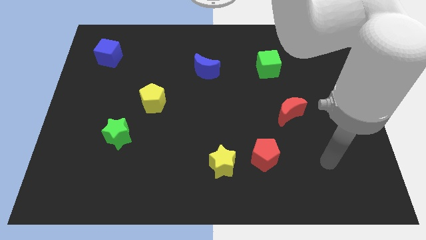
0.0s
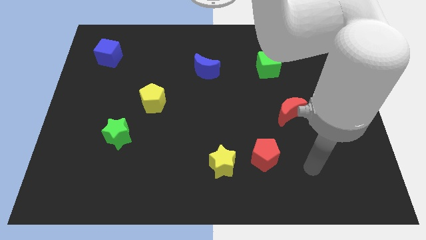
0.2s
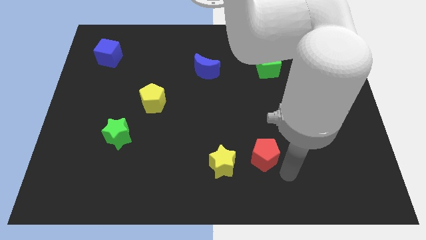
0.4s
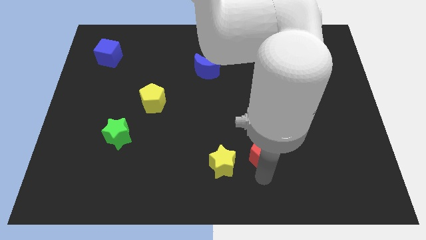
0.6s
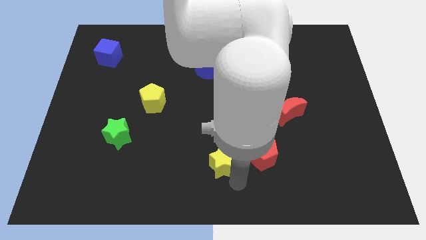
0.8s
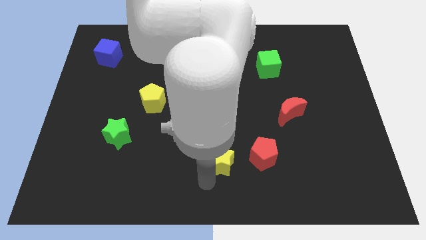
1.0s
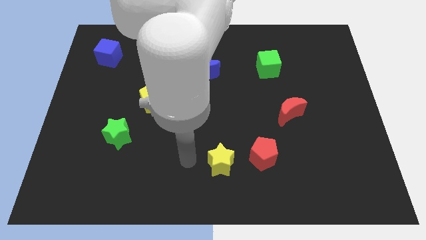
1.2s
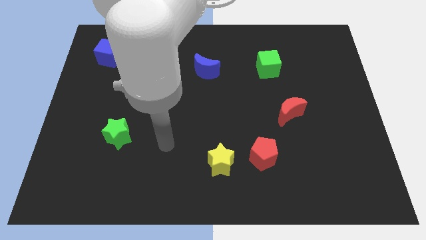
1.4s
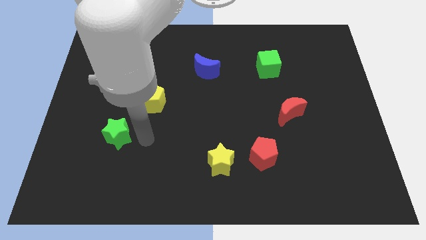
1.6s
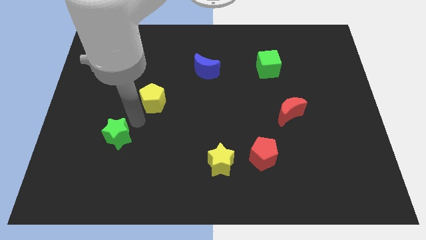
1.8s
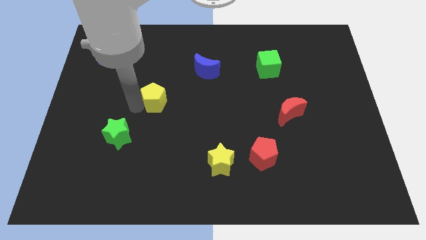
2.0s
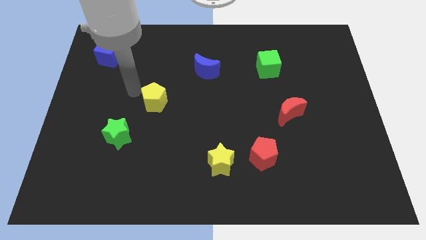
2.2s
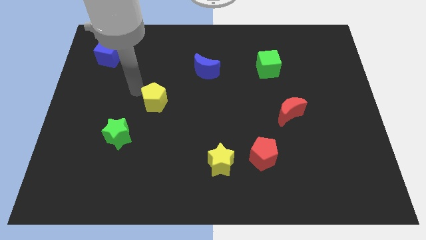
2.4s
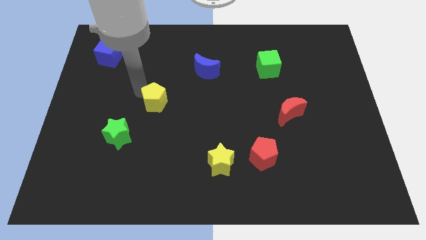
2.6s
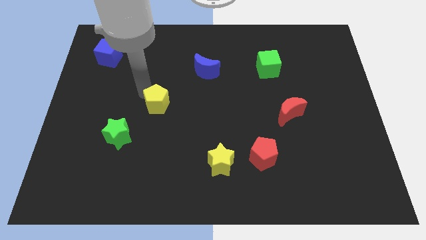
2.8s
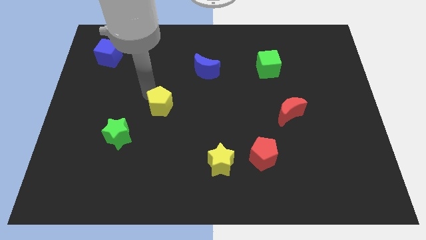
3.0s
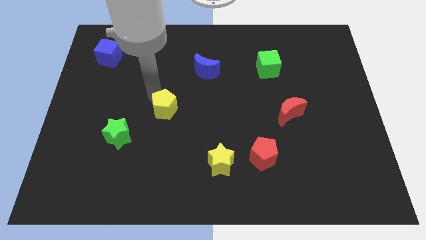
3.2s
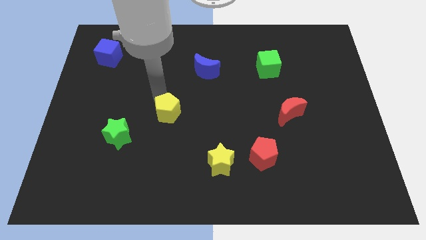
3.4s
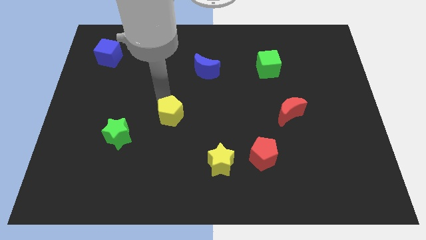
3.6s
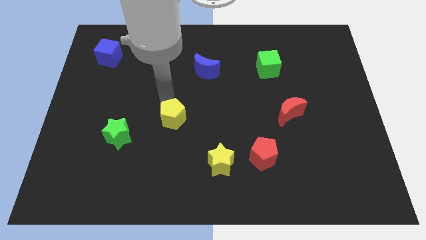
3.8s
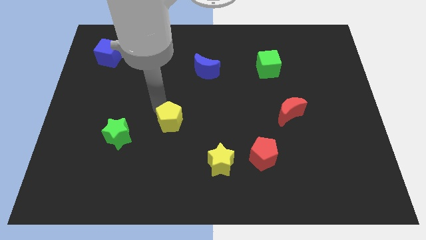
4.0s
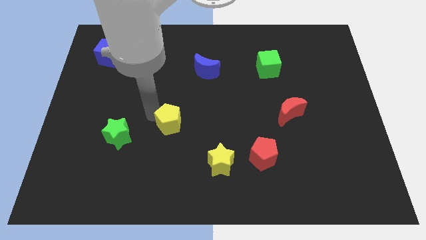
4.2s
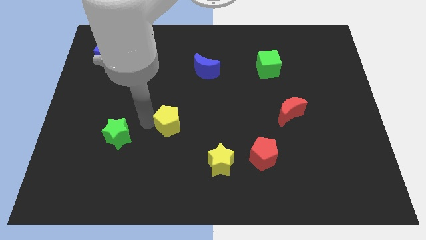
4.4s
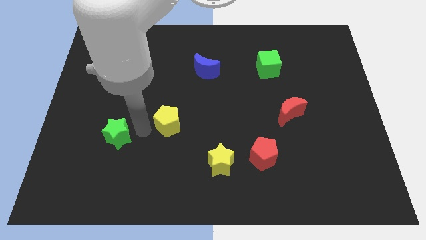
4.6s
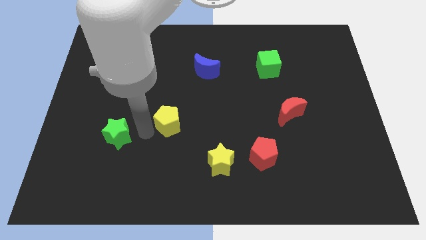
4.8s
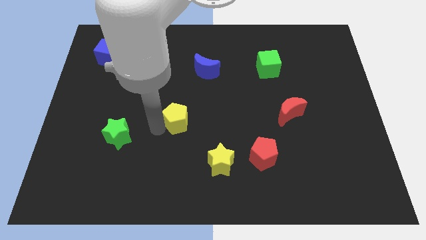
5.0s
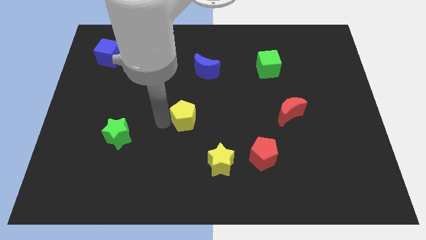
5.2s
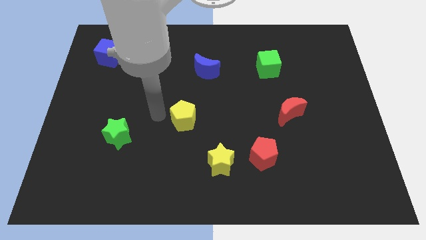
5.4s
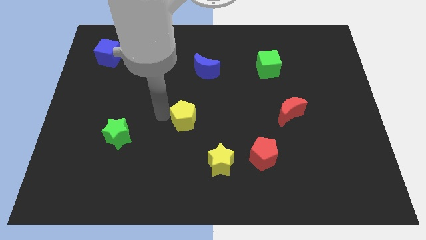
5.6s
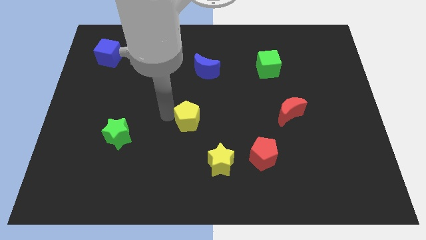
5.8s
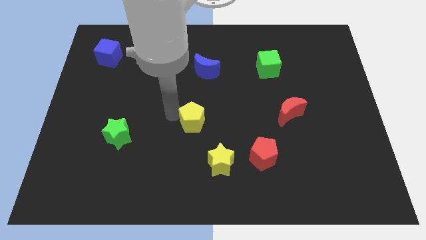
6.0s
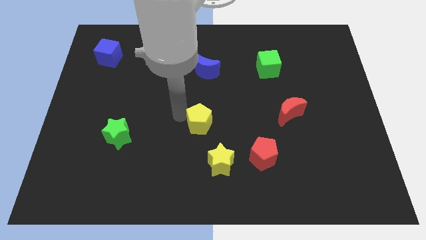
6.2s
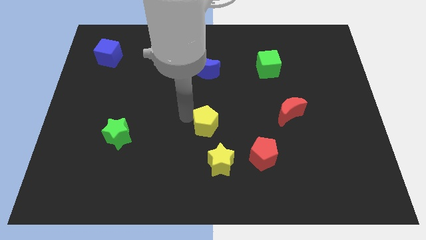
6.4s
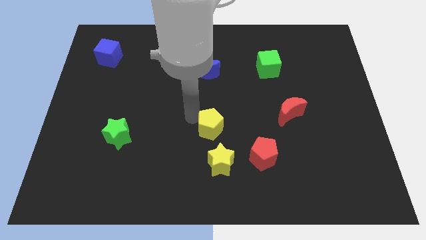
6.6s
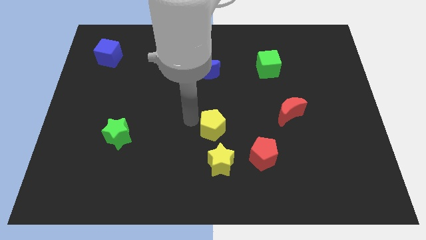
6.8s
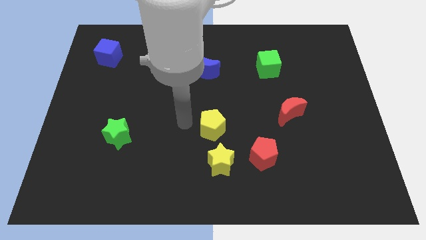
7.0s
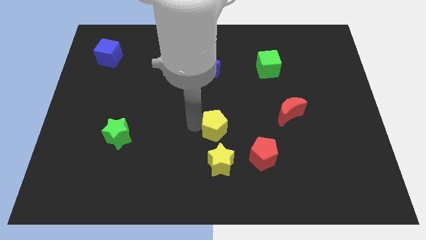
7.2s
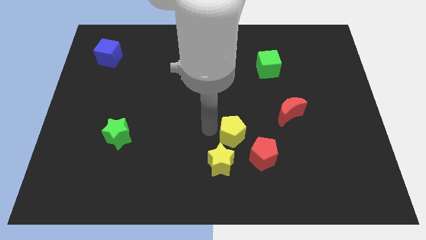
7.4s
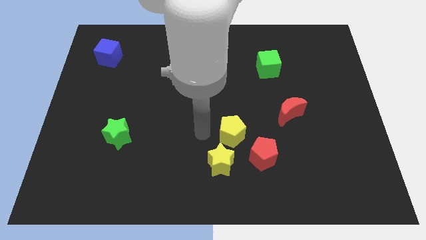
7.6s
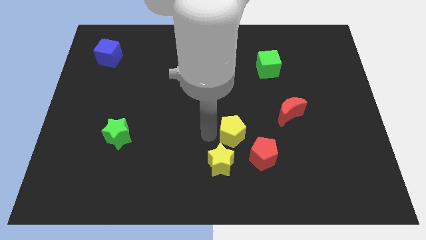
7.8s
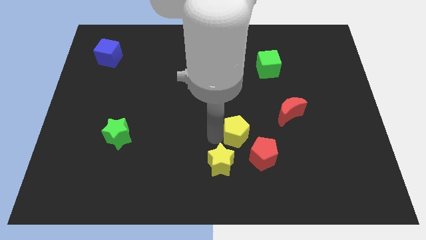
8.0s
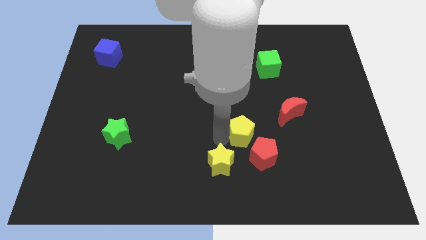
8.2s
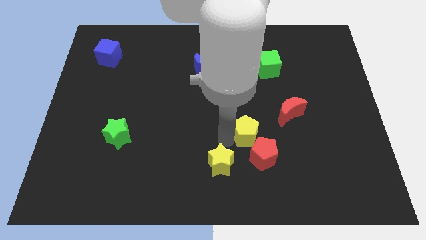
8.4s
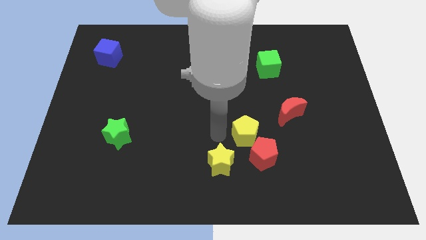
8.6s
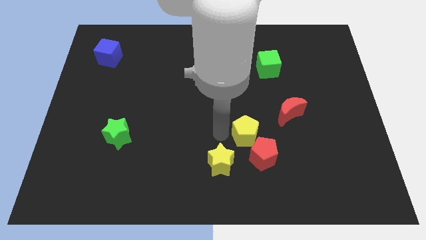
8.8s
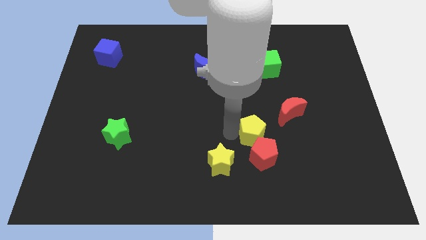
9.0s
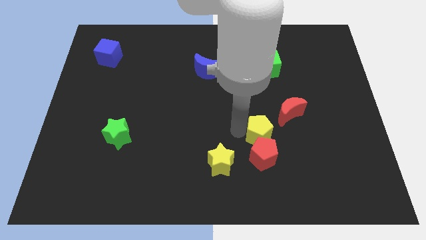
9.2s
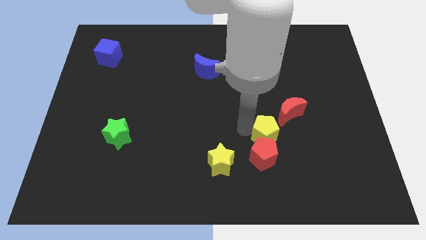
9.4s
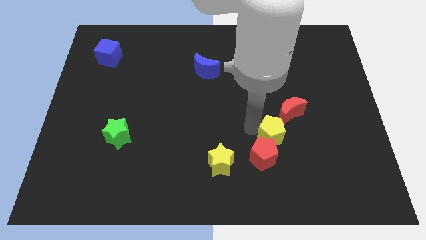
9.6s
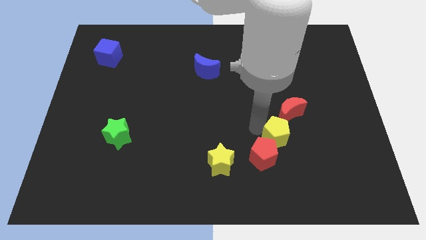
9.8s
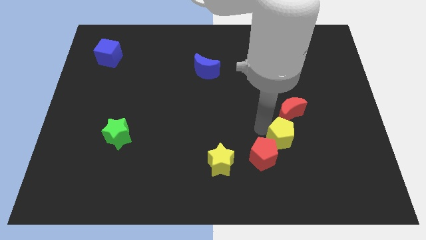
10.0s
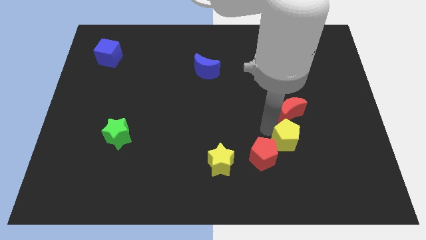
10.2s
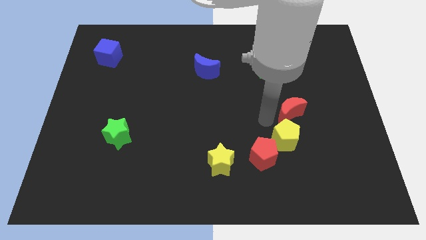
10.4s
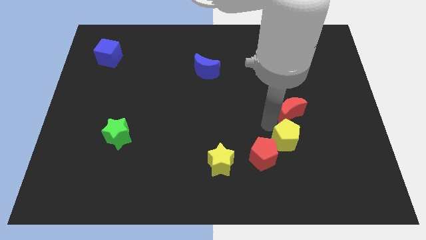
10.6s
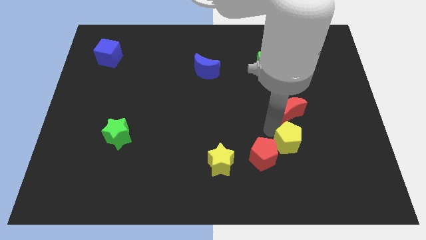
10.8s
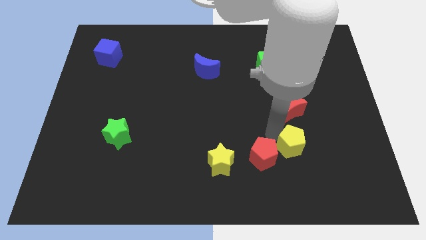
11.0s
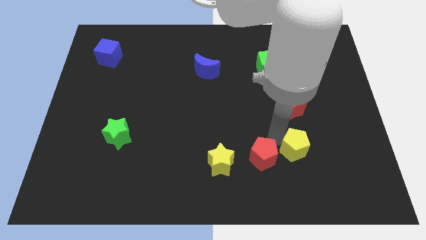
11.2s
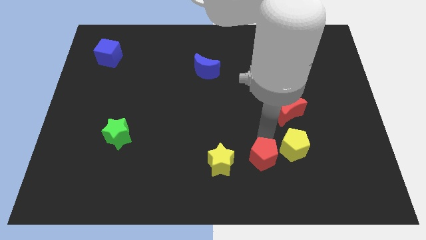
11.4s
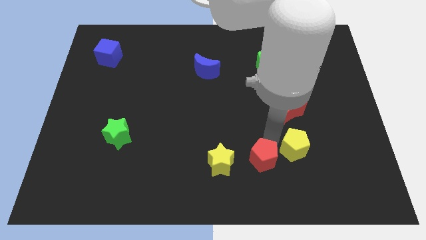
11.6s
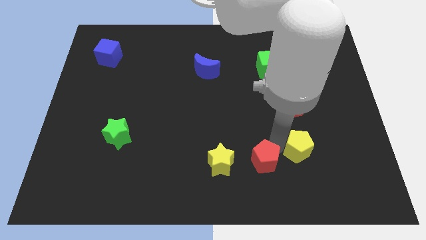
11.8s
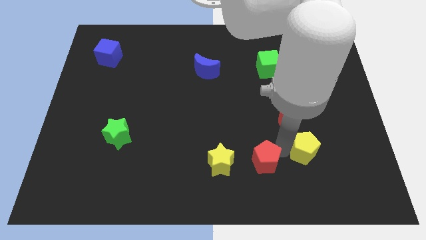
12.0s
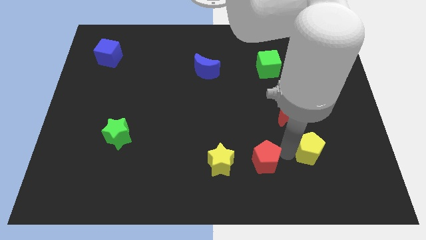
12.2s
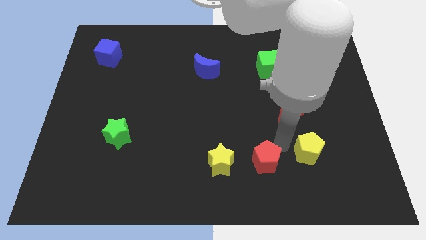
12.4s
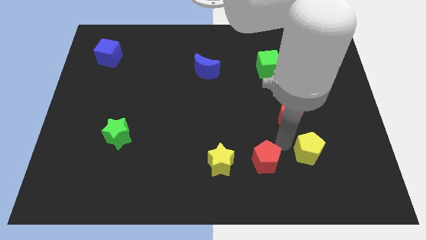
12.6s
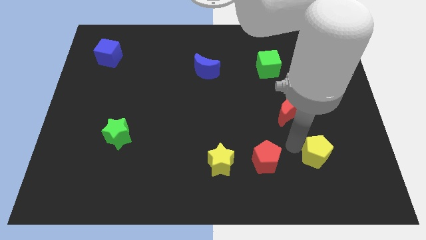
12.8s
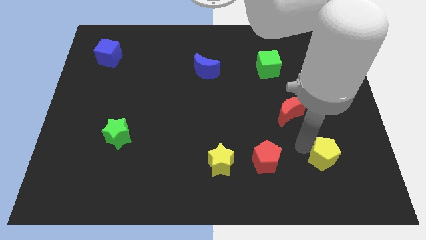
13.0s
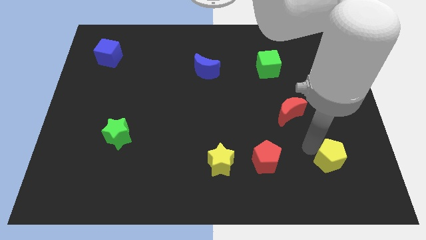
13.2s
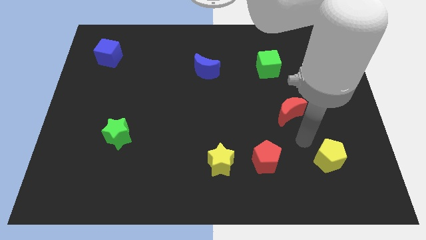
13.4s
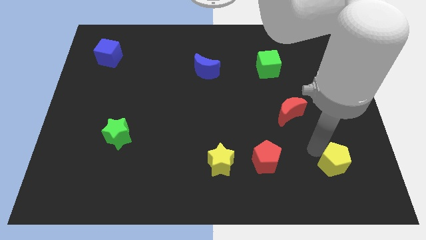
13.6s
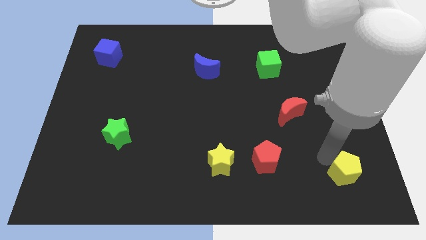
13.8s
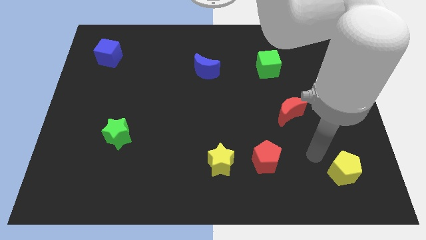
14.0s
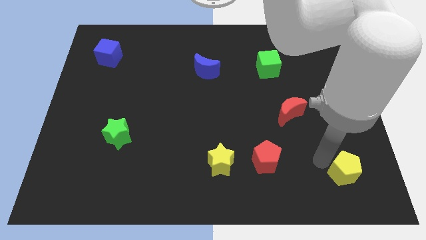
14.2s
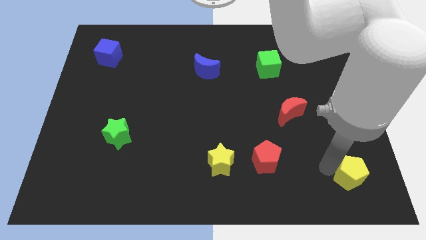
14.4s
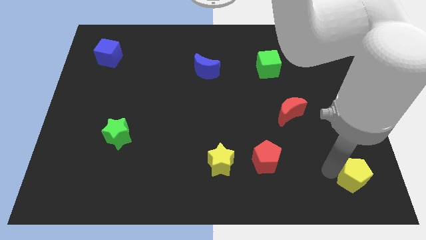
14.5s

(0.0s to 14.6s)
move the yellow pentagon to the lower right corner
